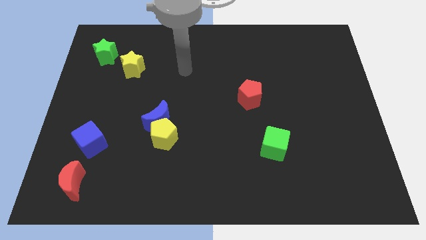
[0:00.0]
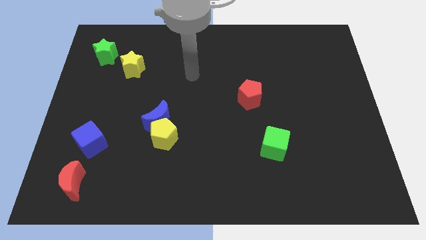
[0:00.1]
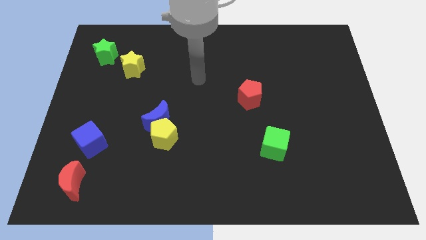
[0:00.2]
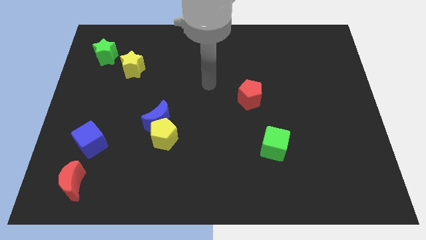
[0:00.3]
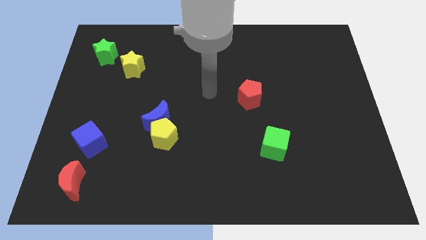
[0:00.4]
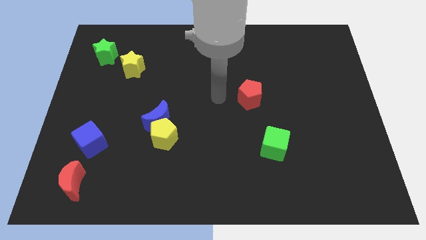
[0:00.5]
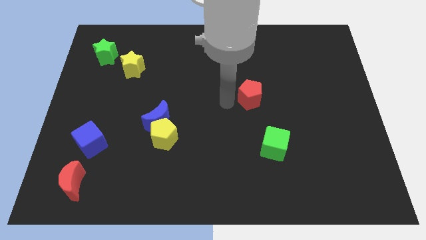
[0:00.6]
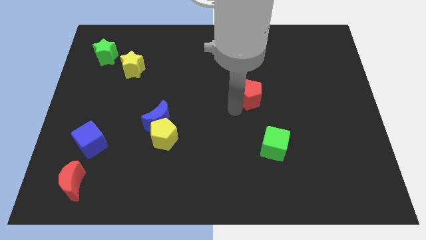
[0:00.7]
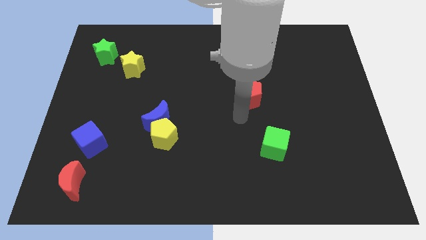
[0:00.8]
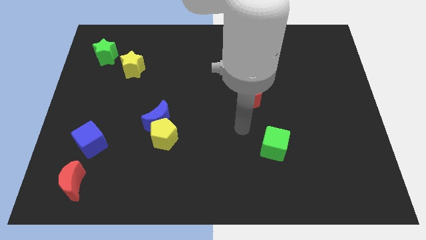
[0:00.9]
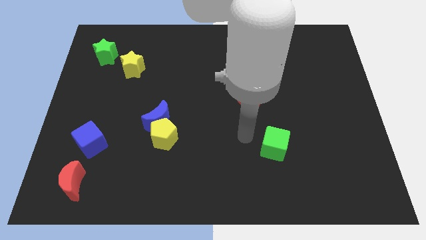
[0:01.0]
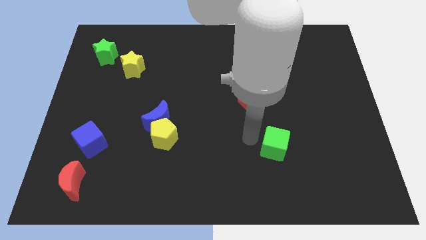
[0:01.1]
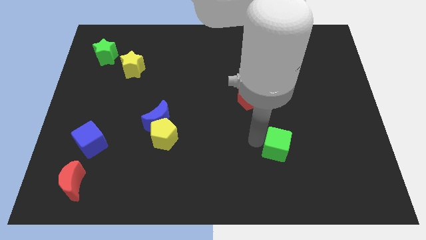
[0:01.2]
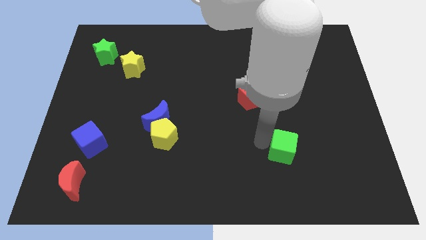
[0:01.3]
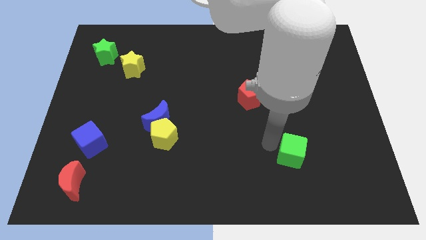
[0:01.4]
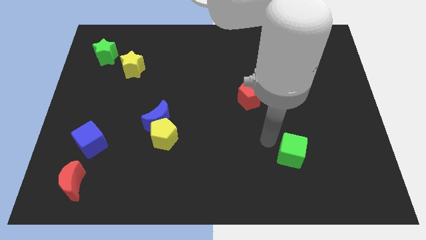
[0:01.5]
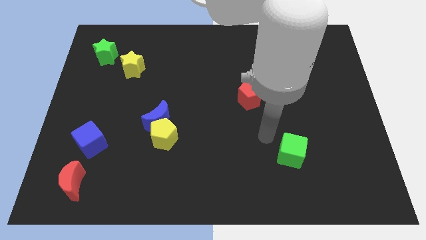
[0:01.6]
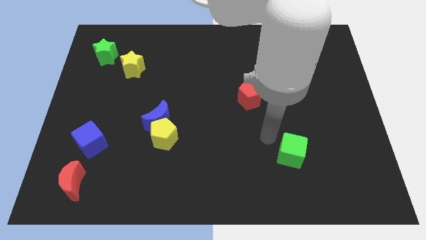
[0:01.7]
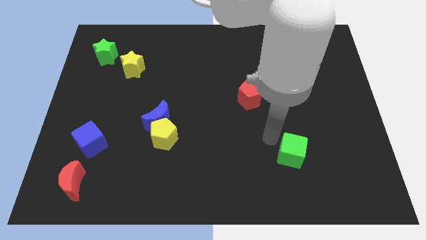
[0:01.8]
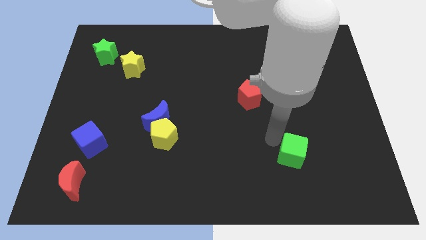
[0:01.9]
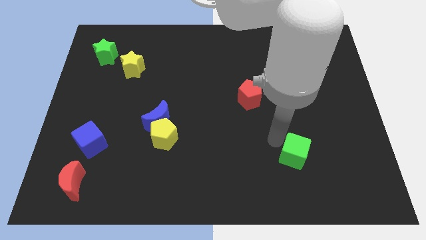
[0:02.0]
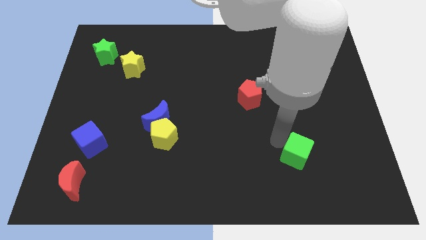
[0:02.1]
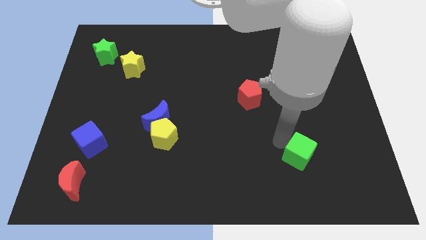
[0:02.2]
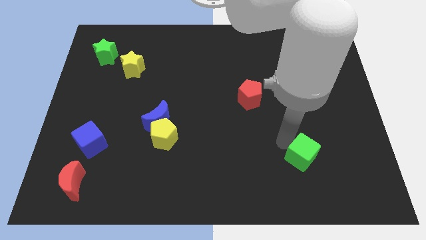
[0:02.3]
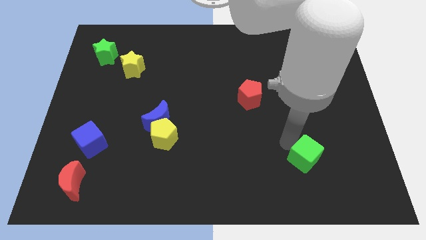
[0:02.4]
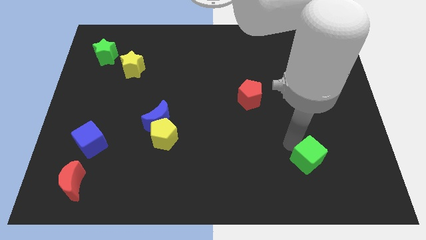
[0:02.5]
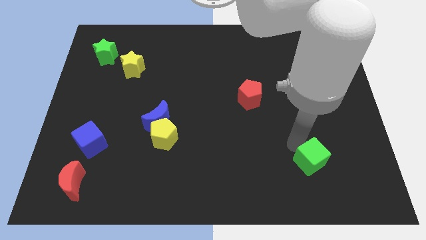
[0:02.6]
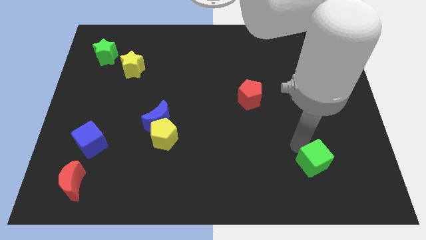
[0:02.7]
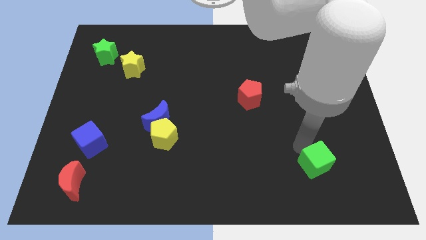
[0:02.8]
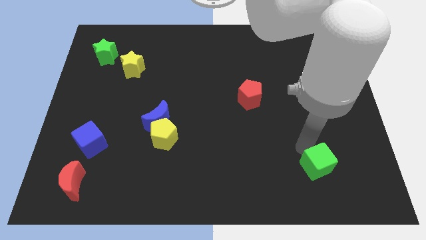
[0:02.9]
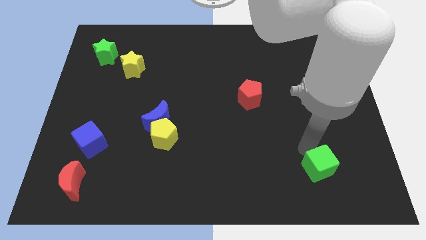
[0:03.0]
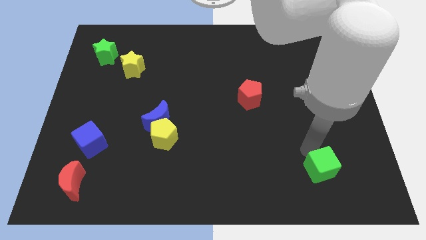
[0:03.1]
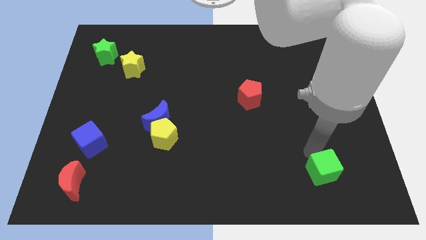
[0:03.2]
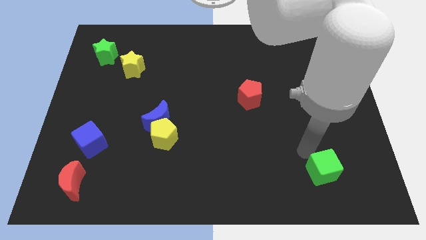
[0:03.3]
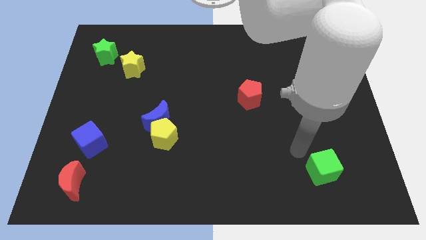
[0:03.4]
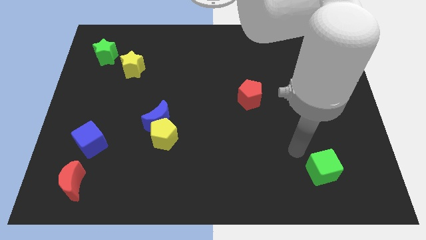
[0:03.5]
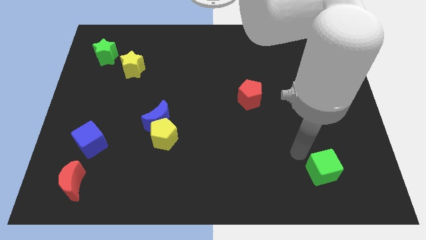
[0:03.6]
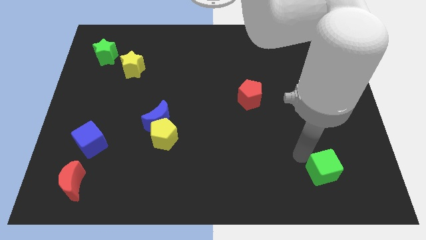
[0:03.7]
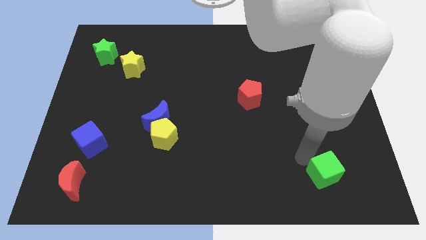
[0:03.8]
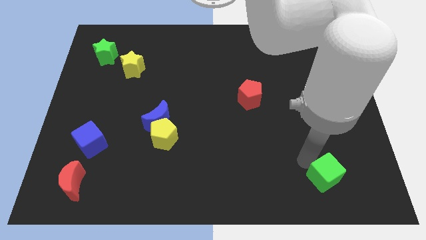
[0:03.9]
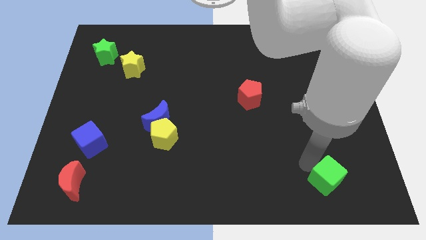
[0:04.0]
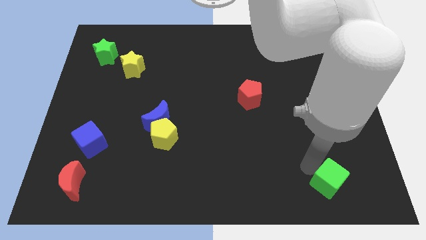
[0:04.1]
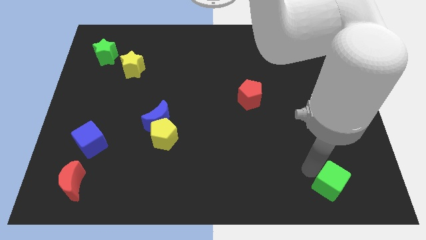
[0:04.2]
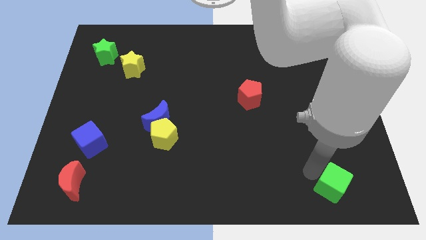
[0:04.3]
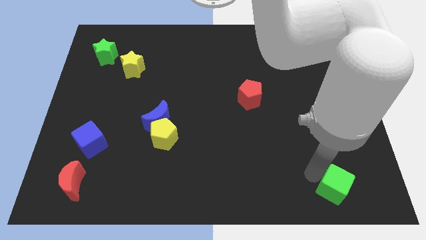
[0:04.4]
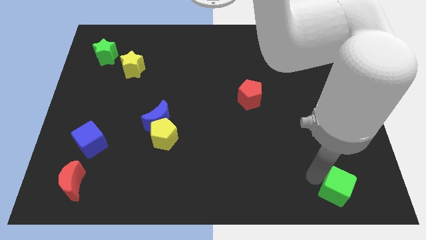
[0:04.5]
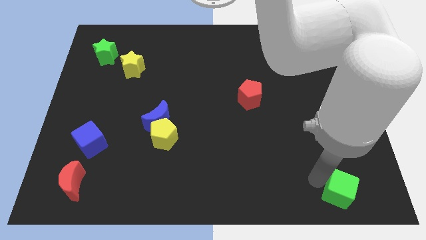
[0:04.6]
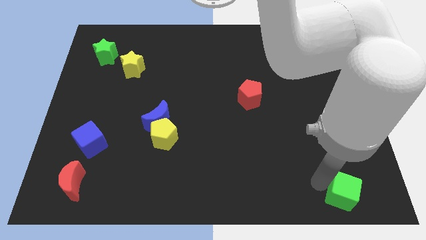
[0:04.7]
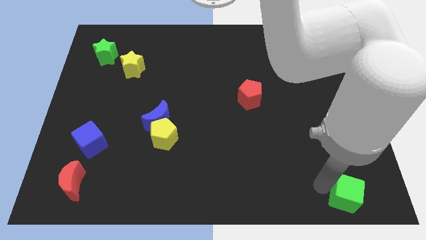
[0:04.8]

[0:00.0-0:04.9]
move the green cube to the lower right corner

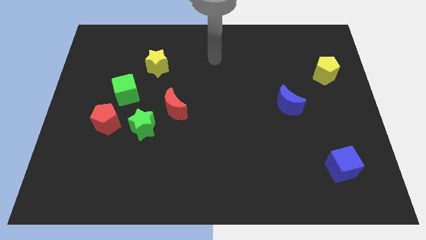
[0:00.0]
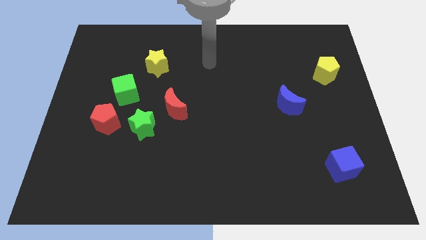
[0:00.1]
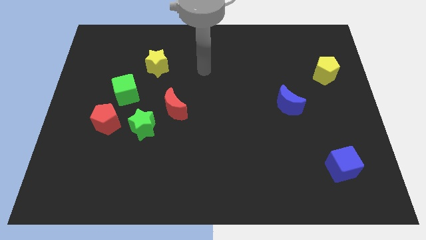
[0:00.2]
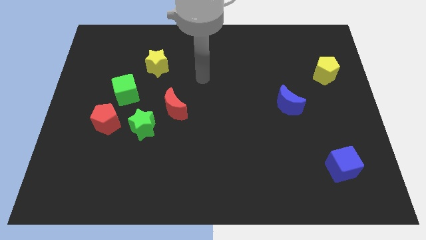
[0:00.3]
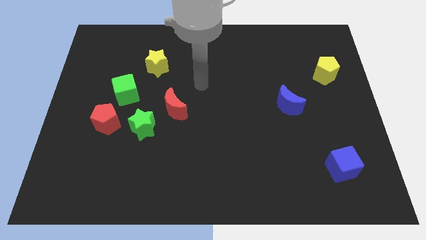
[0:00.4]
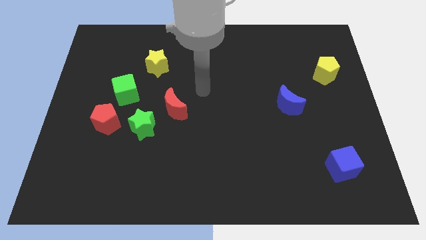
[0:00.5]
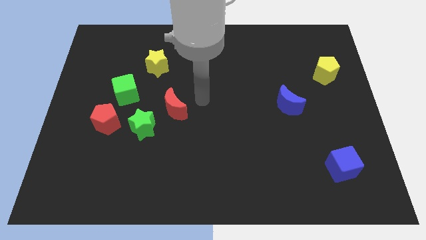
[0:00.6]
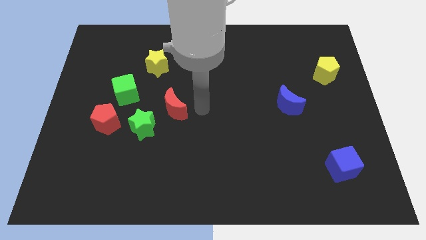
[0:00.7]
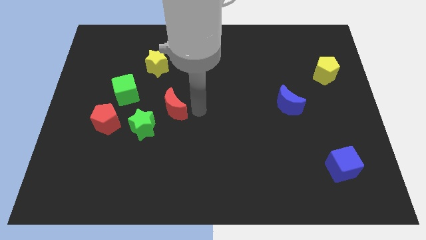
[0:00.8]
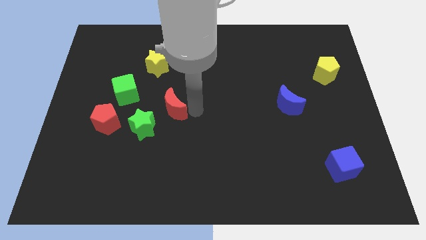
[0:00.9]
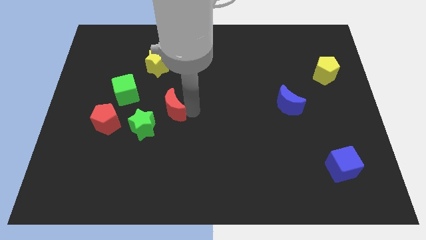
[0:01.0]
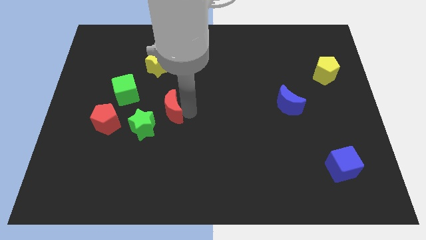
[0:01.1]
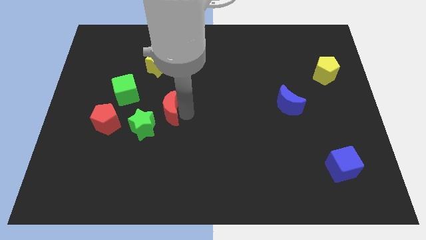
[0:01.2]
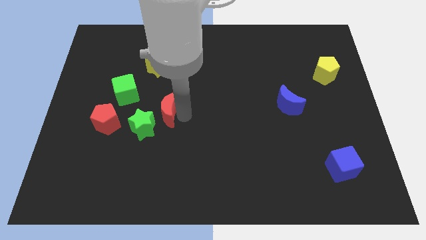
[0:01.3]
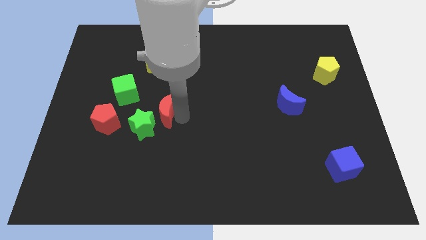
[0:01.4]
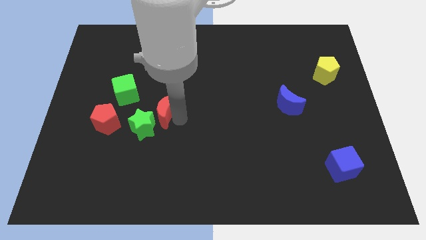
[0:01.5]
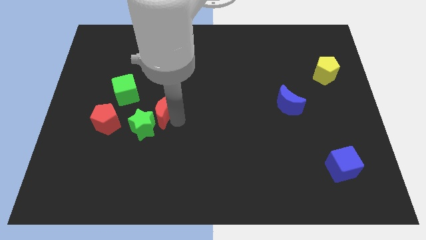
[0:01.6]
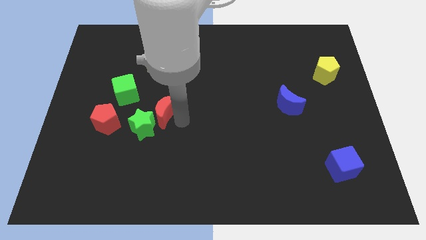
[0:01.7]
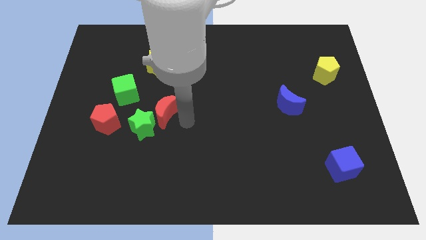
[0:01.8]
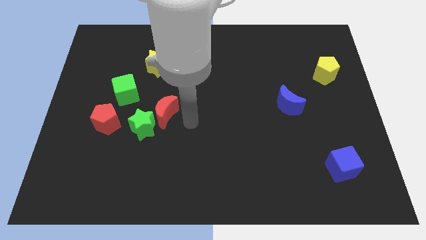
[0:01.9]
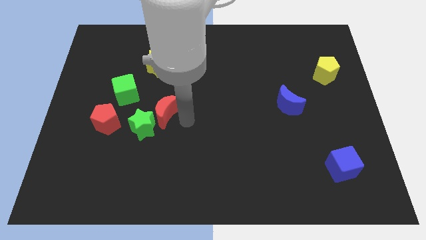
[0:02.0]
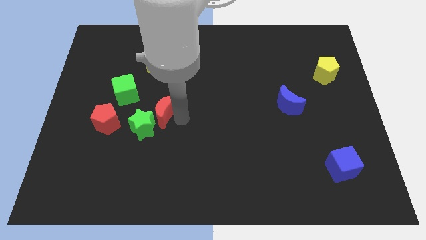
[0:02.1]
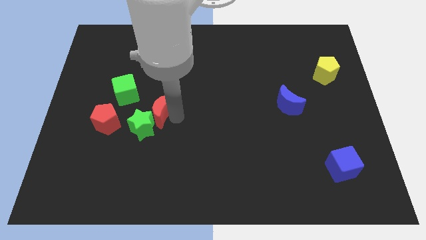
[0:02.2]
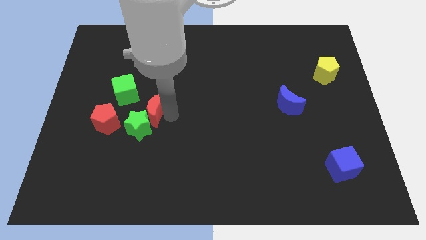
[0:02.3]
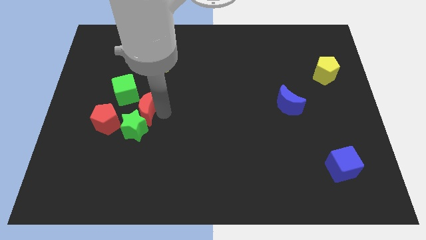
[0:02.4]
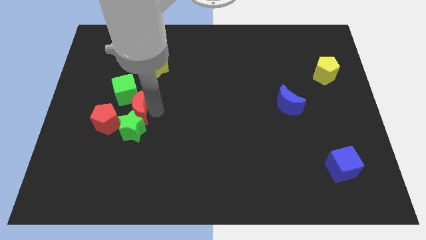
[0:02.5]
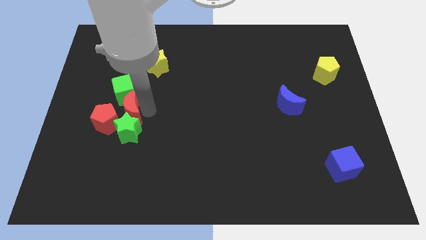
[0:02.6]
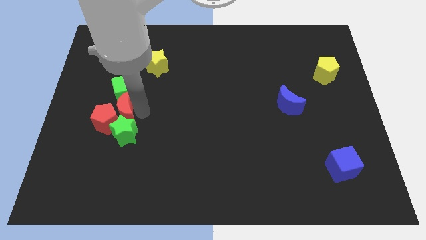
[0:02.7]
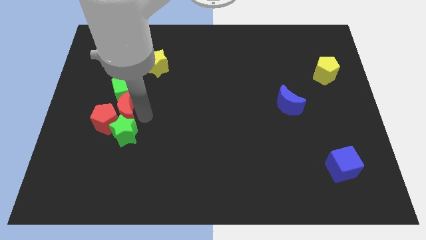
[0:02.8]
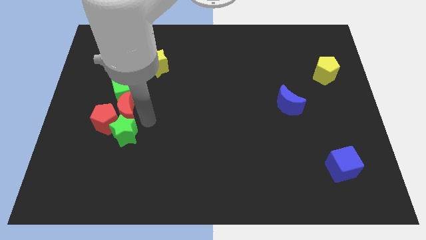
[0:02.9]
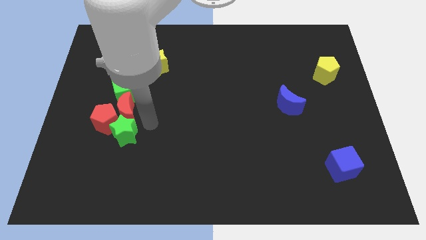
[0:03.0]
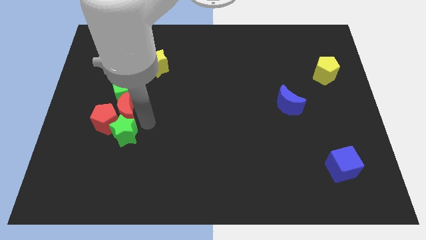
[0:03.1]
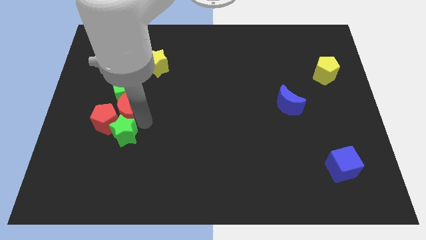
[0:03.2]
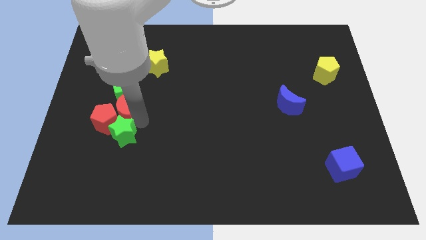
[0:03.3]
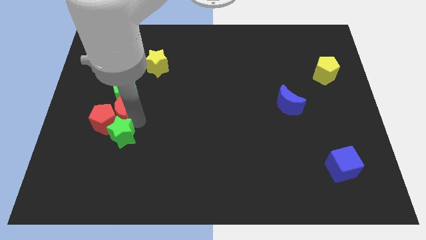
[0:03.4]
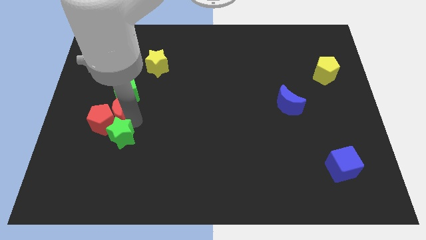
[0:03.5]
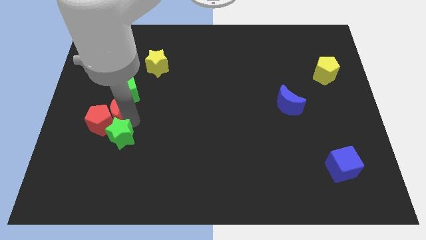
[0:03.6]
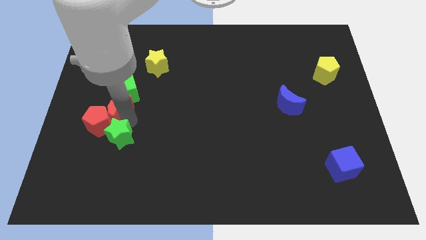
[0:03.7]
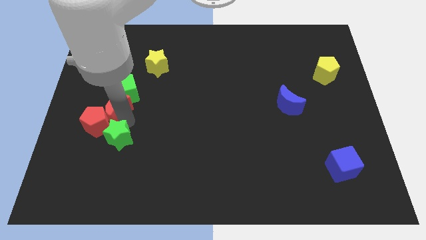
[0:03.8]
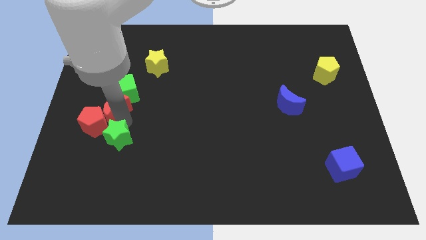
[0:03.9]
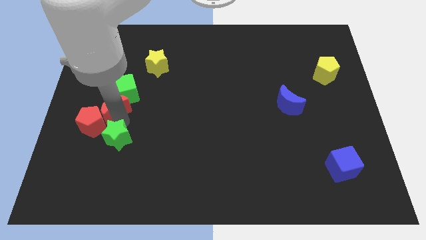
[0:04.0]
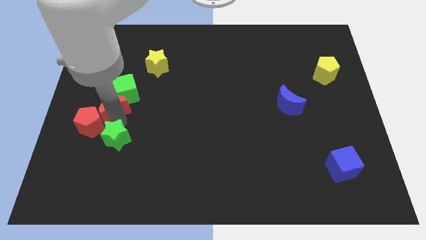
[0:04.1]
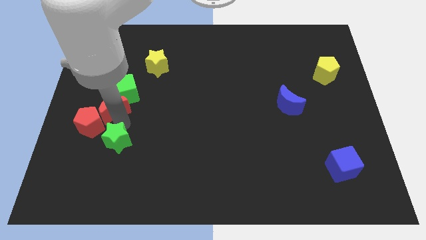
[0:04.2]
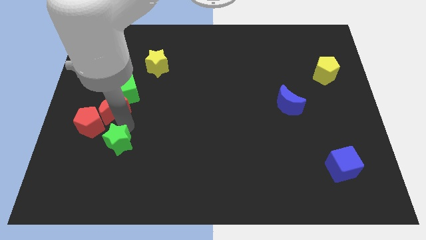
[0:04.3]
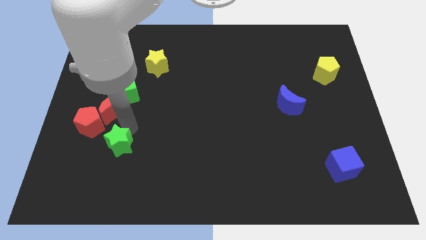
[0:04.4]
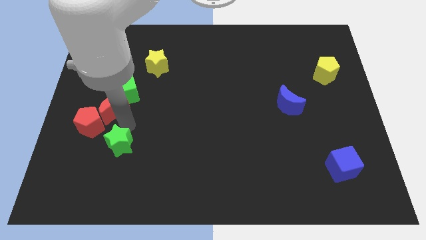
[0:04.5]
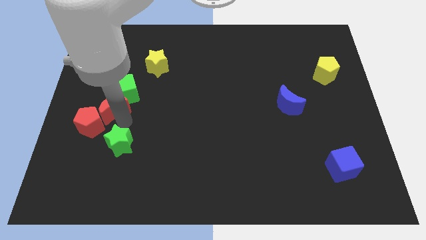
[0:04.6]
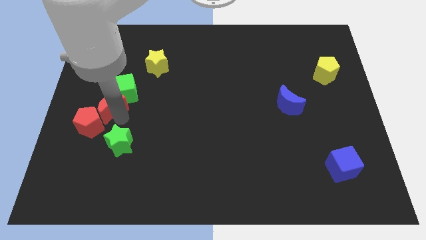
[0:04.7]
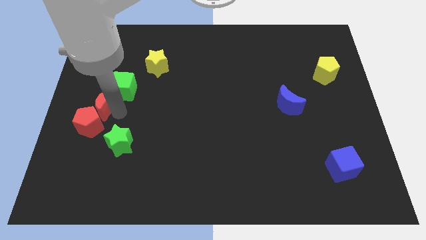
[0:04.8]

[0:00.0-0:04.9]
move the red moon to the left side
